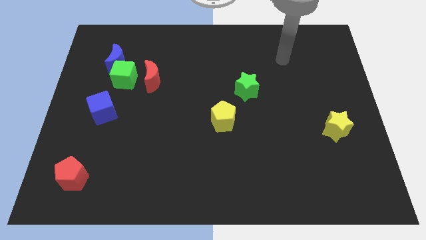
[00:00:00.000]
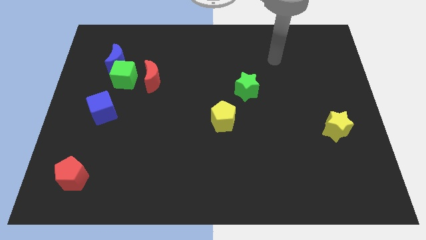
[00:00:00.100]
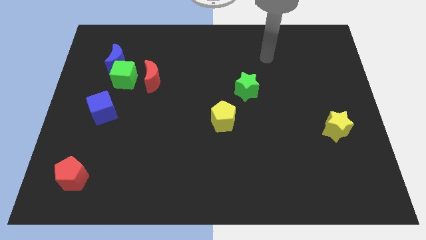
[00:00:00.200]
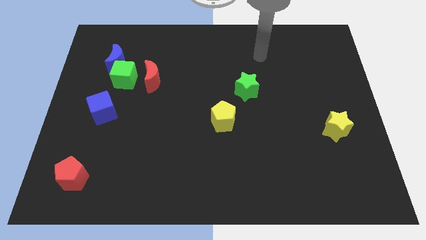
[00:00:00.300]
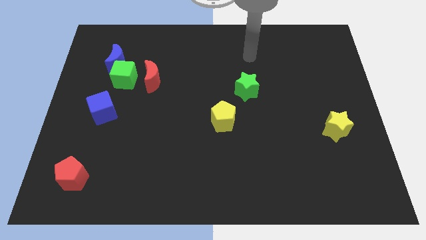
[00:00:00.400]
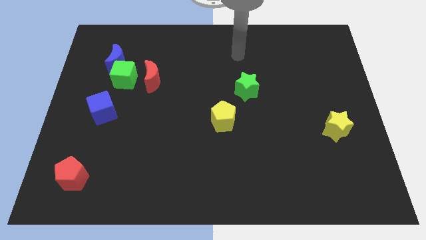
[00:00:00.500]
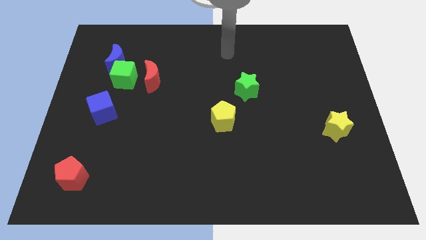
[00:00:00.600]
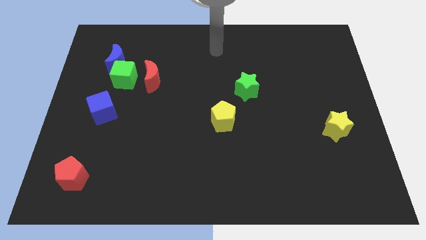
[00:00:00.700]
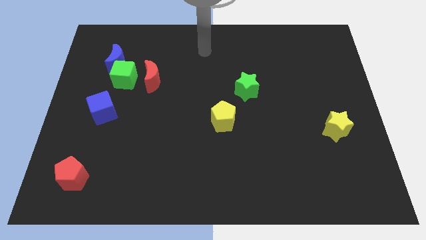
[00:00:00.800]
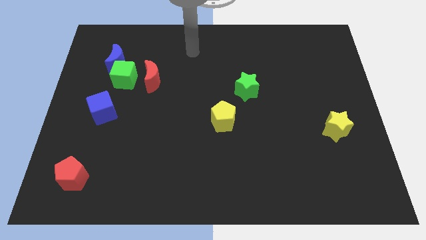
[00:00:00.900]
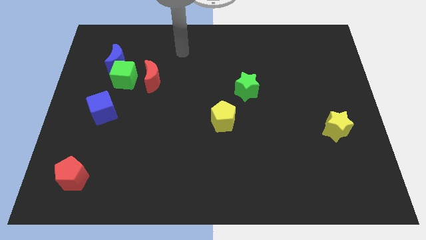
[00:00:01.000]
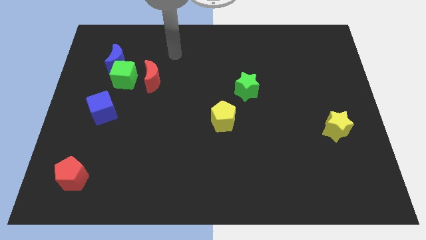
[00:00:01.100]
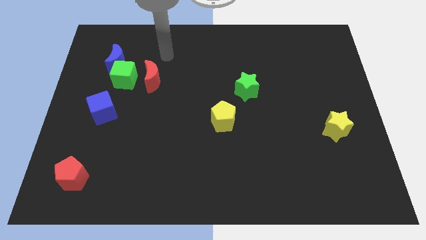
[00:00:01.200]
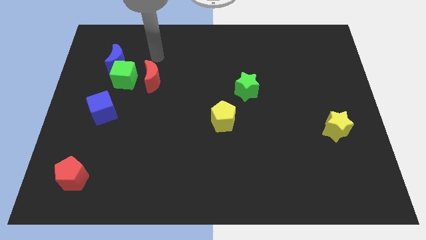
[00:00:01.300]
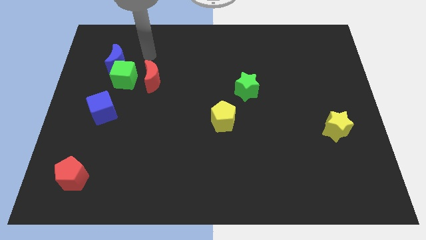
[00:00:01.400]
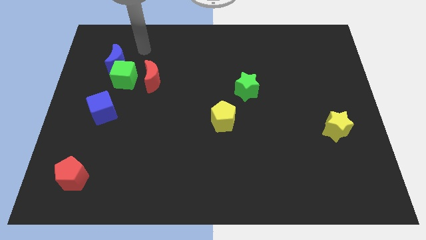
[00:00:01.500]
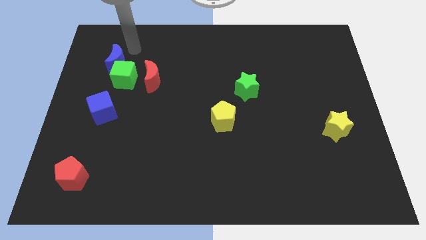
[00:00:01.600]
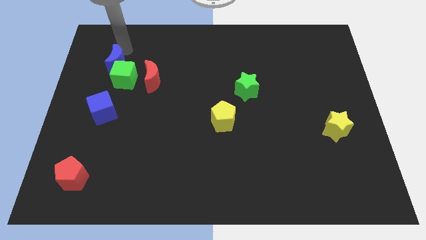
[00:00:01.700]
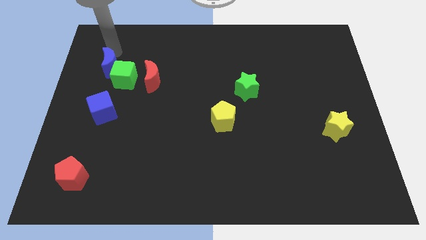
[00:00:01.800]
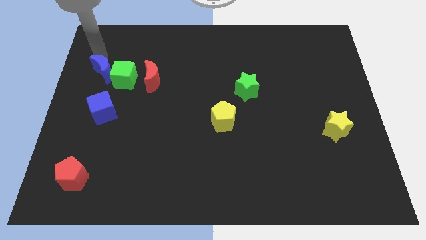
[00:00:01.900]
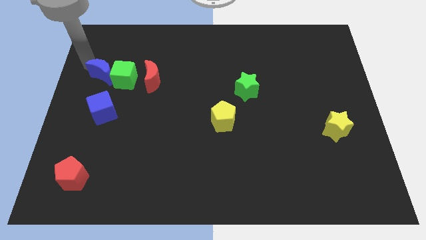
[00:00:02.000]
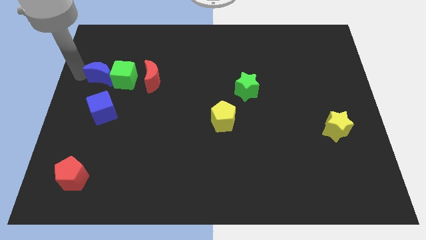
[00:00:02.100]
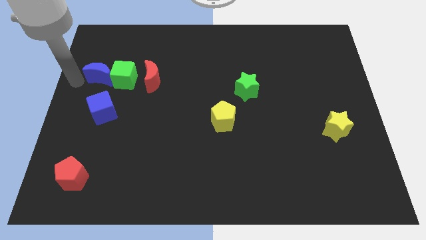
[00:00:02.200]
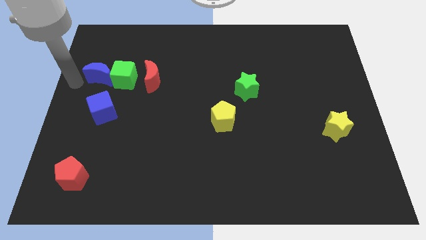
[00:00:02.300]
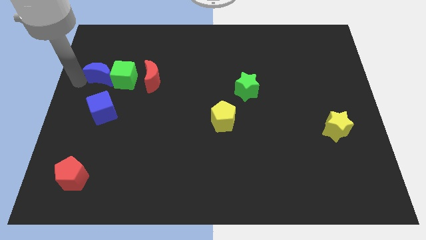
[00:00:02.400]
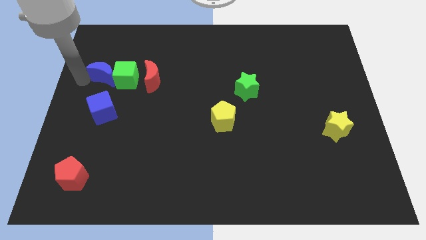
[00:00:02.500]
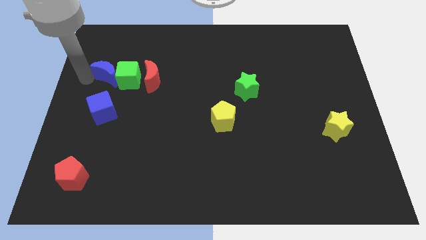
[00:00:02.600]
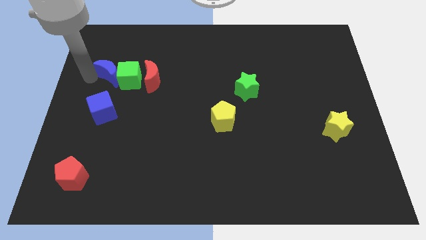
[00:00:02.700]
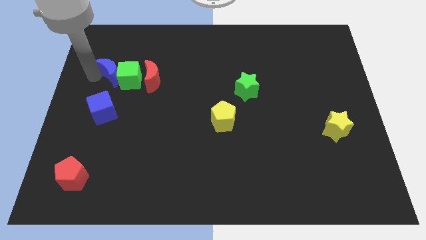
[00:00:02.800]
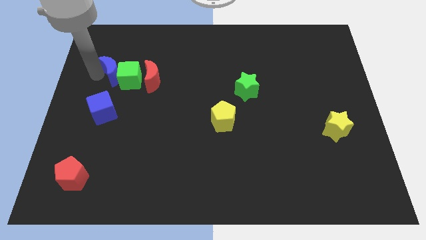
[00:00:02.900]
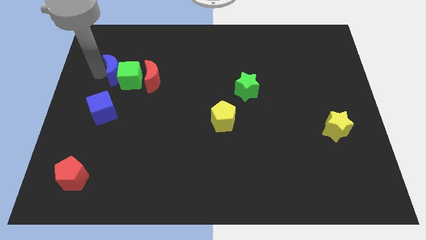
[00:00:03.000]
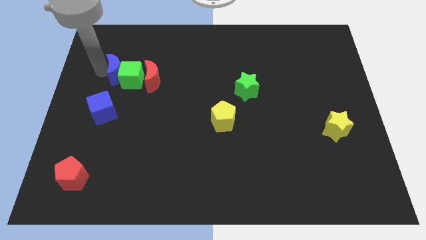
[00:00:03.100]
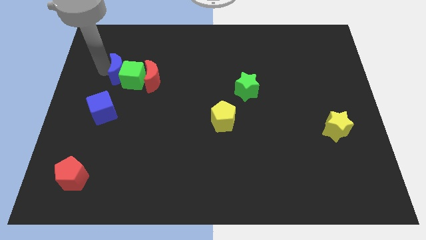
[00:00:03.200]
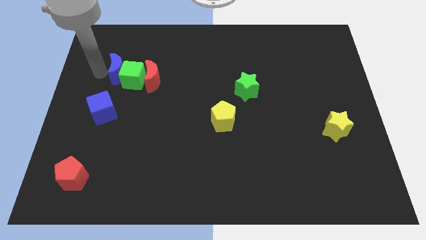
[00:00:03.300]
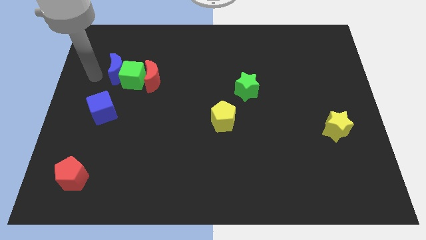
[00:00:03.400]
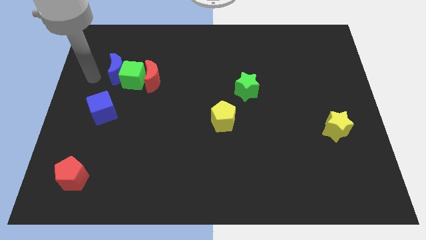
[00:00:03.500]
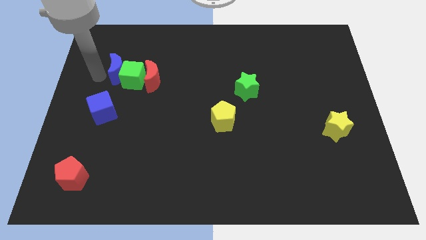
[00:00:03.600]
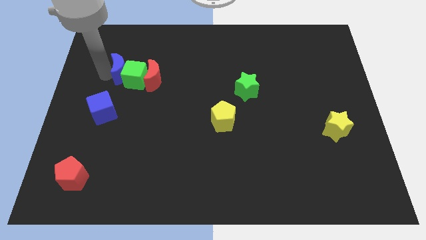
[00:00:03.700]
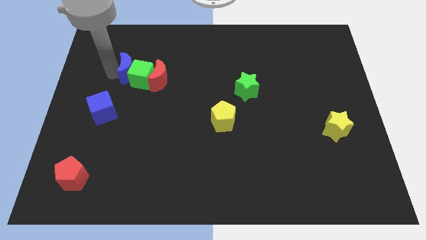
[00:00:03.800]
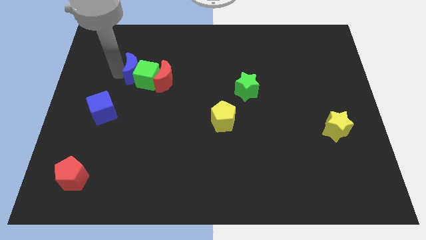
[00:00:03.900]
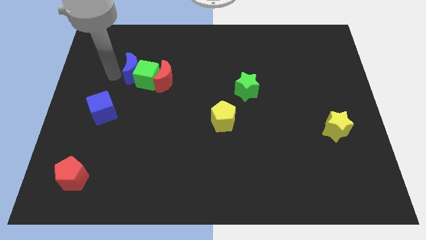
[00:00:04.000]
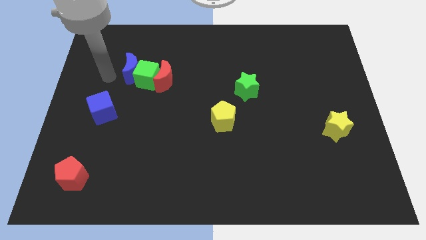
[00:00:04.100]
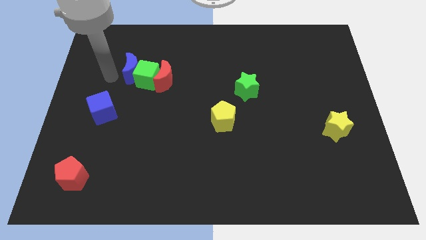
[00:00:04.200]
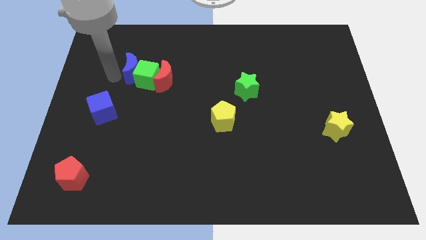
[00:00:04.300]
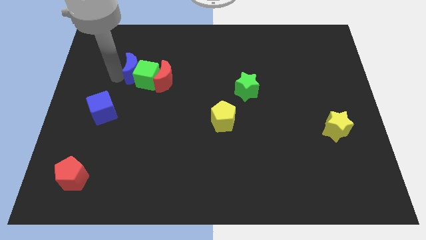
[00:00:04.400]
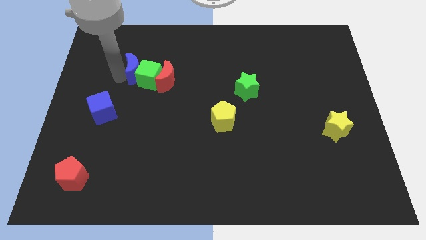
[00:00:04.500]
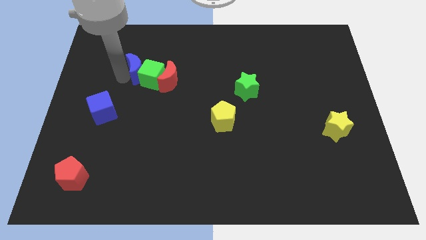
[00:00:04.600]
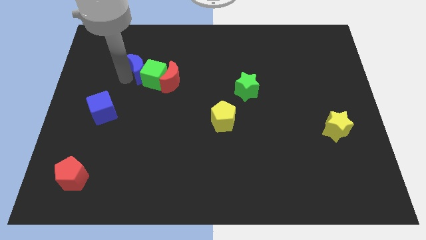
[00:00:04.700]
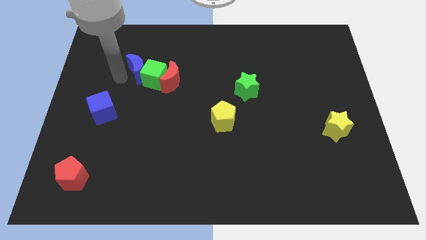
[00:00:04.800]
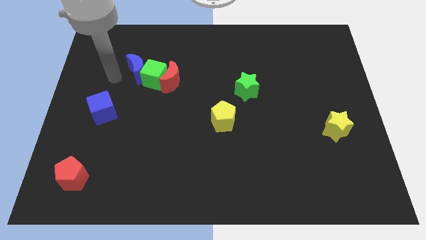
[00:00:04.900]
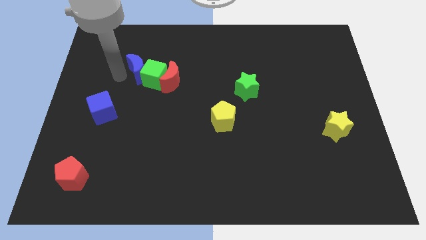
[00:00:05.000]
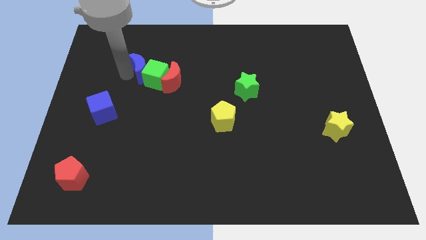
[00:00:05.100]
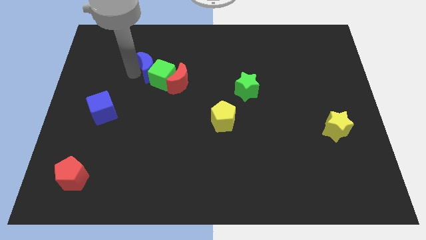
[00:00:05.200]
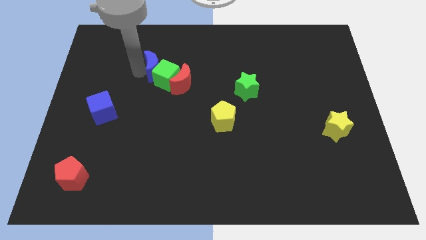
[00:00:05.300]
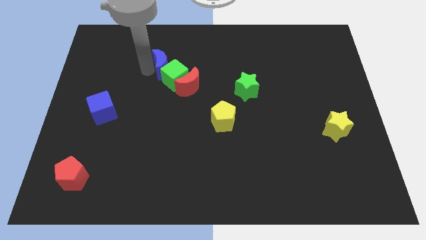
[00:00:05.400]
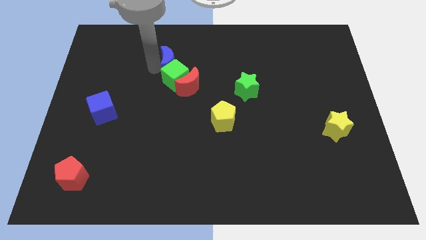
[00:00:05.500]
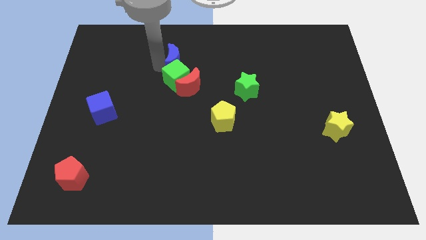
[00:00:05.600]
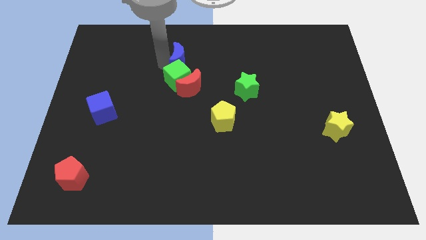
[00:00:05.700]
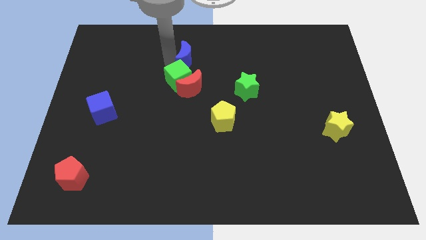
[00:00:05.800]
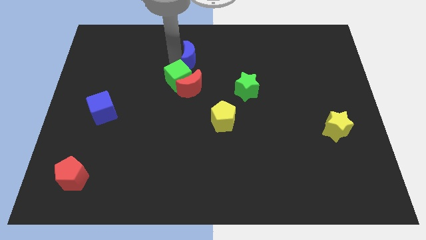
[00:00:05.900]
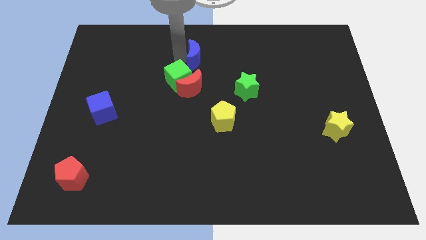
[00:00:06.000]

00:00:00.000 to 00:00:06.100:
move the blue moon right

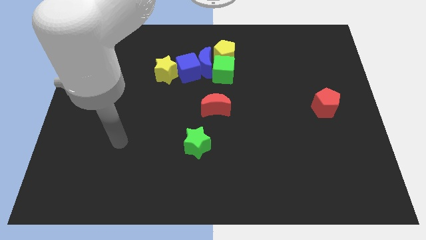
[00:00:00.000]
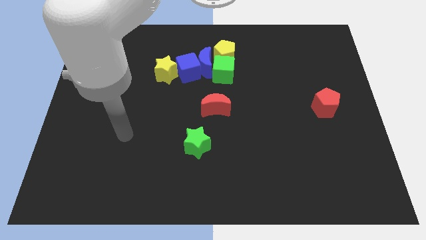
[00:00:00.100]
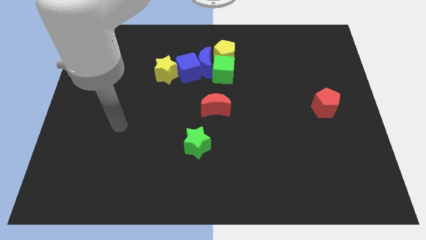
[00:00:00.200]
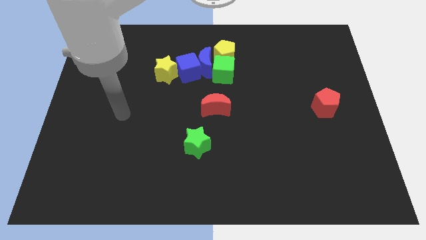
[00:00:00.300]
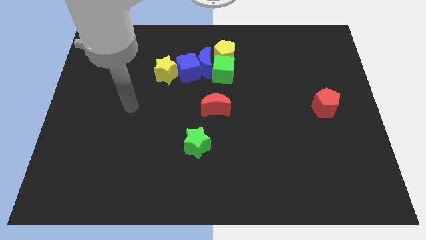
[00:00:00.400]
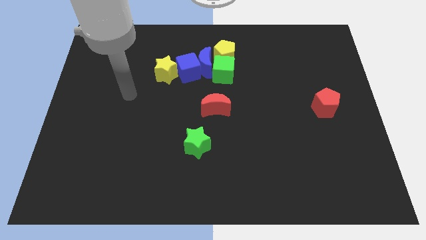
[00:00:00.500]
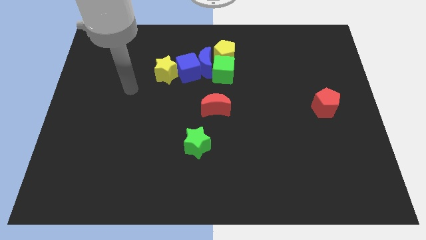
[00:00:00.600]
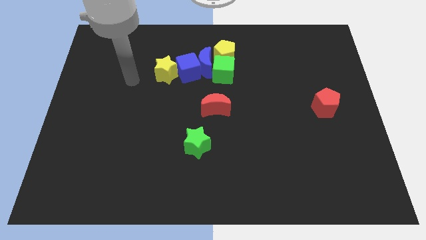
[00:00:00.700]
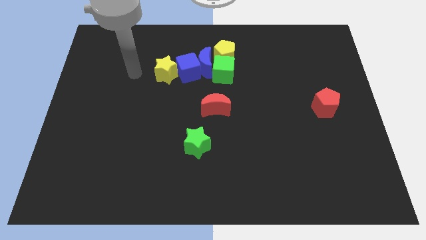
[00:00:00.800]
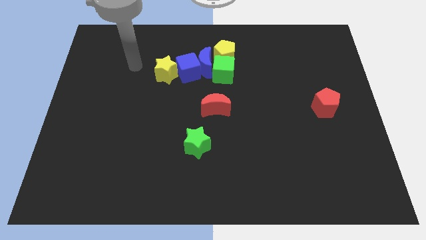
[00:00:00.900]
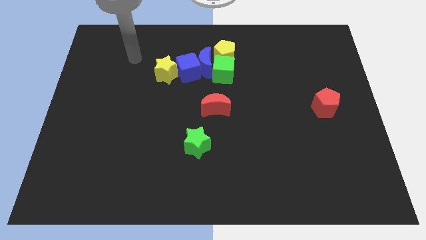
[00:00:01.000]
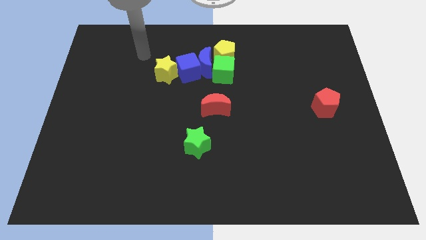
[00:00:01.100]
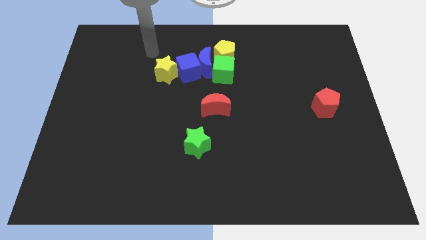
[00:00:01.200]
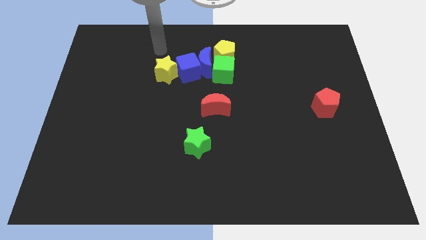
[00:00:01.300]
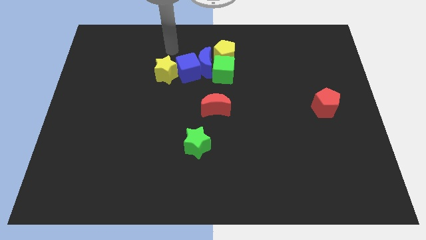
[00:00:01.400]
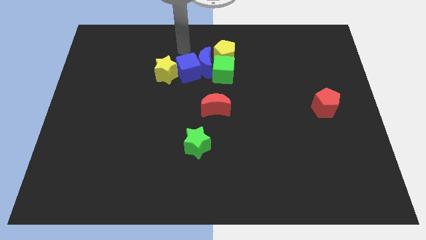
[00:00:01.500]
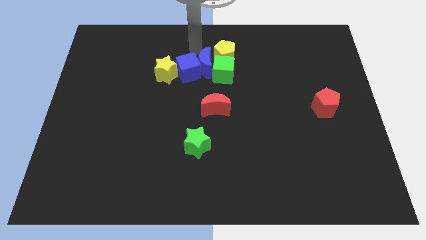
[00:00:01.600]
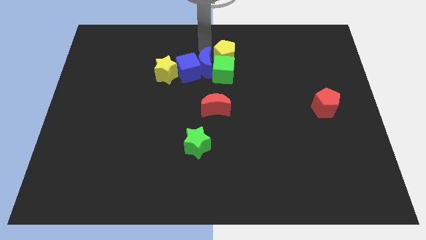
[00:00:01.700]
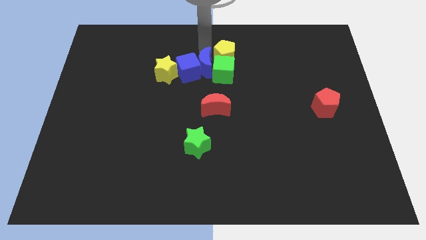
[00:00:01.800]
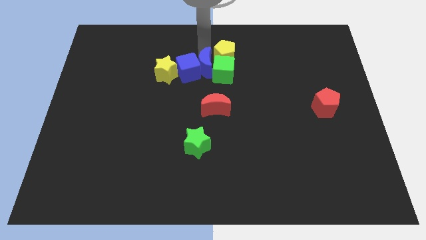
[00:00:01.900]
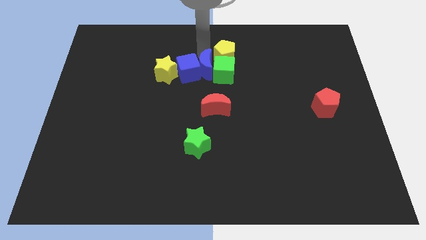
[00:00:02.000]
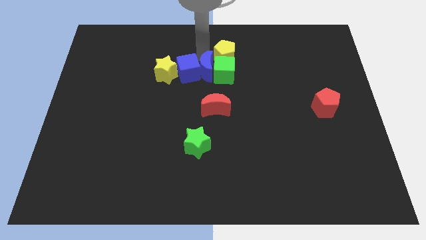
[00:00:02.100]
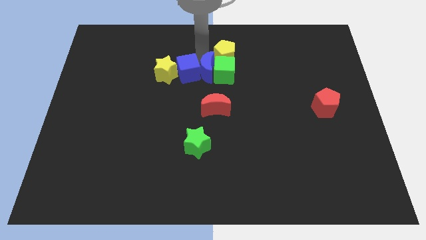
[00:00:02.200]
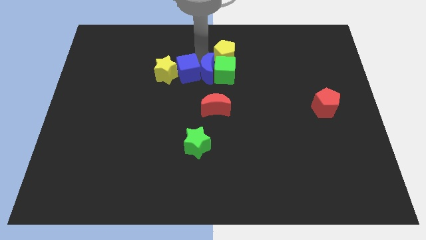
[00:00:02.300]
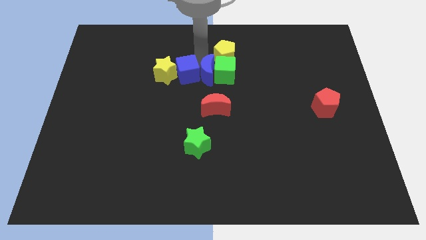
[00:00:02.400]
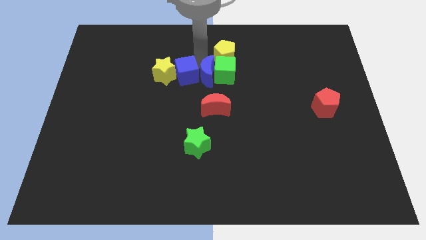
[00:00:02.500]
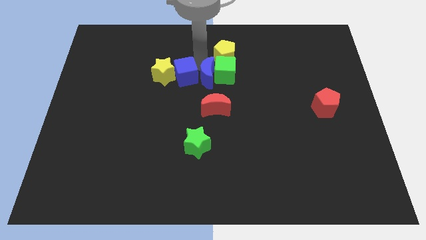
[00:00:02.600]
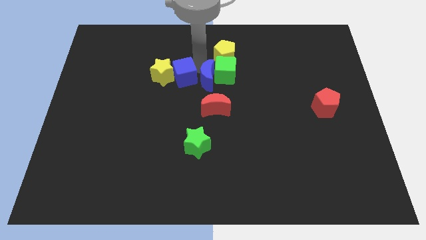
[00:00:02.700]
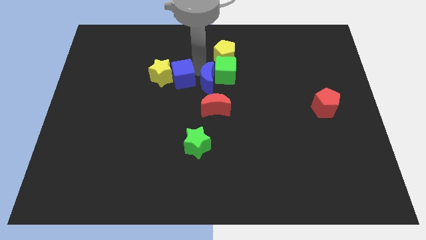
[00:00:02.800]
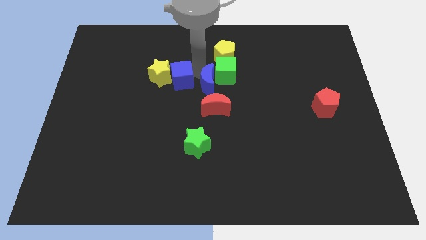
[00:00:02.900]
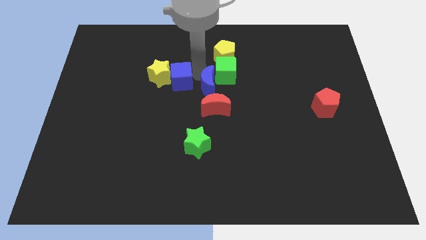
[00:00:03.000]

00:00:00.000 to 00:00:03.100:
move the blue moon down a bit
